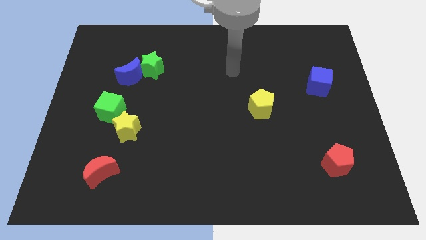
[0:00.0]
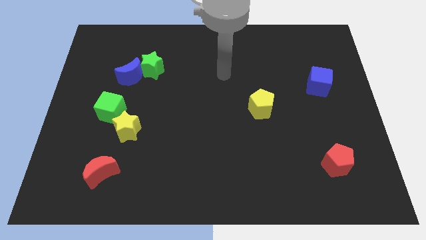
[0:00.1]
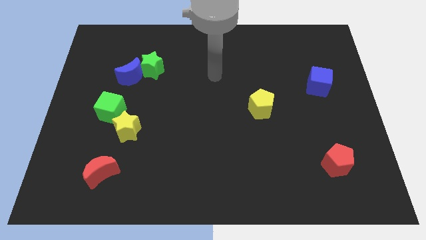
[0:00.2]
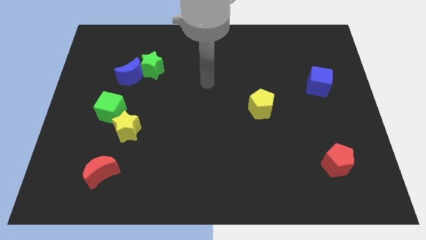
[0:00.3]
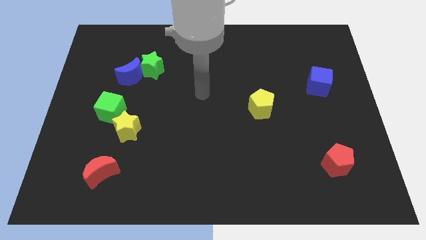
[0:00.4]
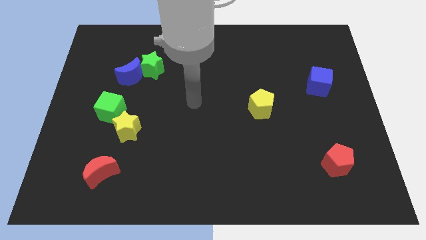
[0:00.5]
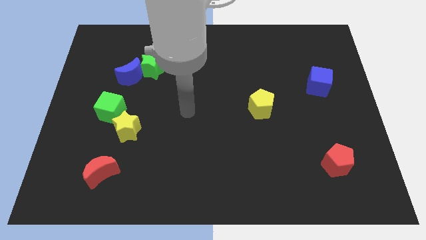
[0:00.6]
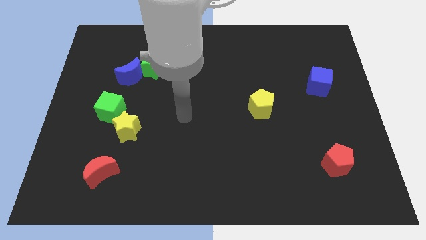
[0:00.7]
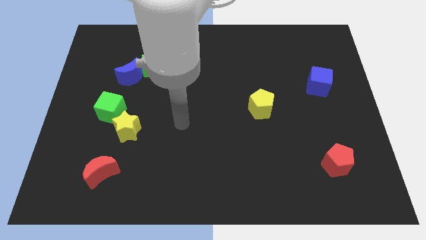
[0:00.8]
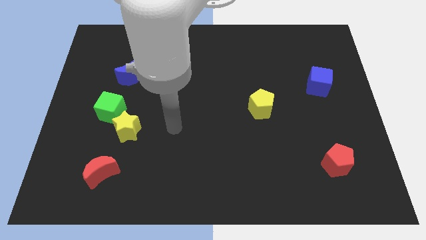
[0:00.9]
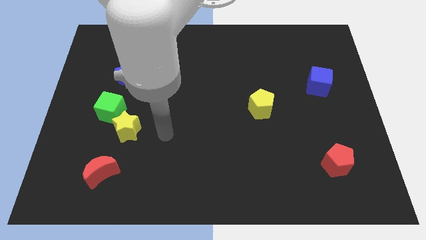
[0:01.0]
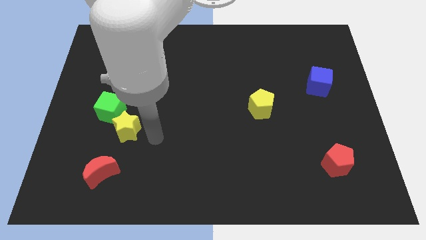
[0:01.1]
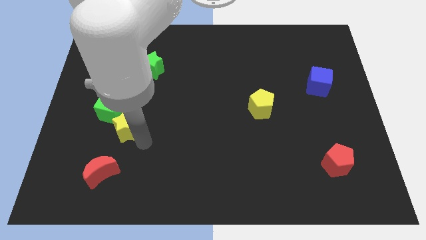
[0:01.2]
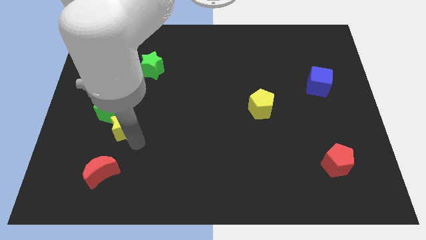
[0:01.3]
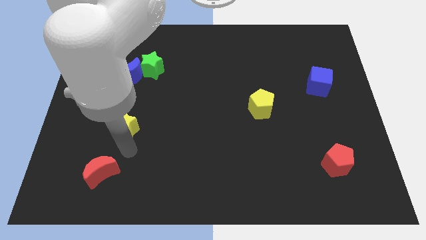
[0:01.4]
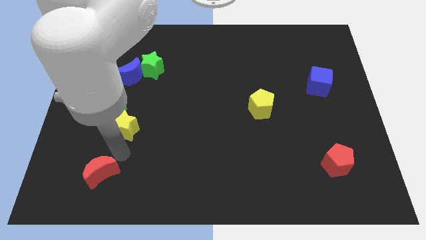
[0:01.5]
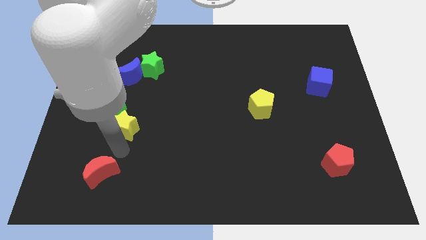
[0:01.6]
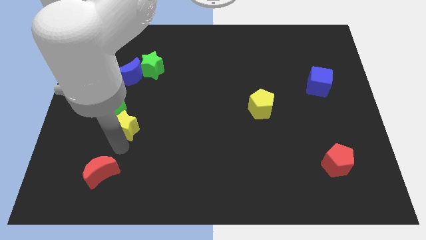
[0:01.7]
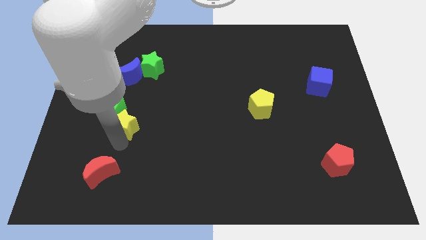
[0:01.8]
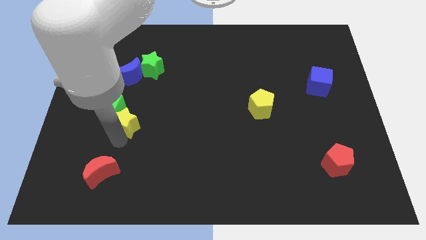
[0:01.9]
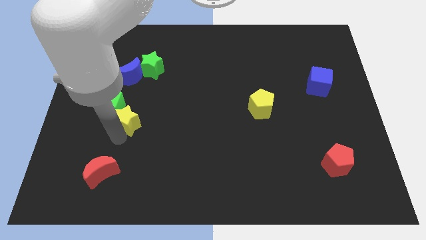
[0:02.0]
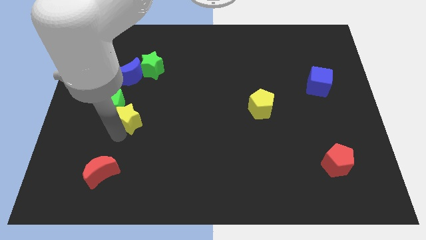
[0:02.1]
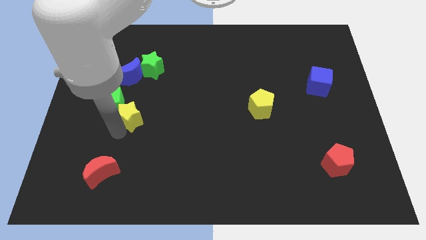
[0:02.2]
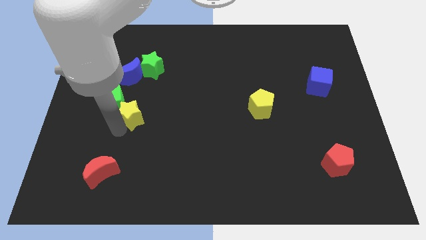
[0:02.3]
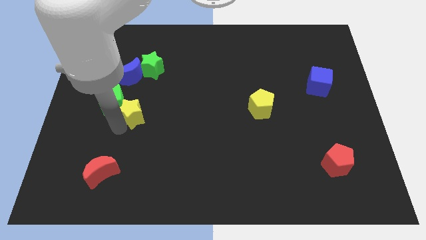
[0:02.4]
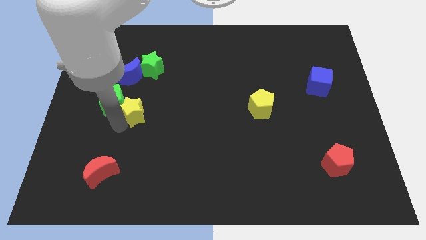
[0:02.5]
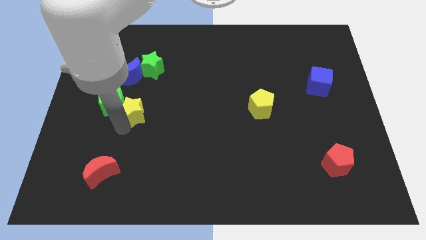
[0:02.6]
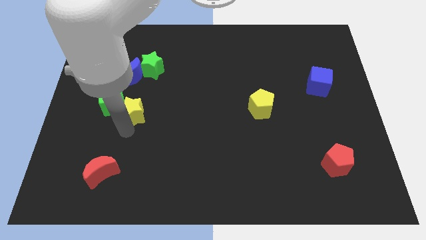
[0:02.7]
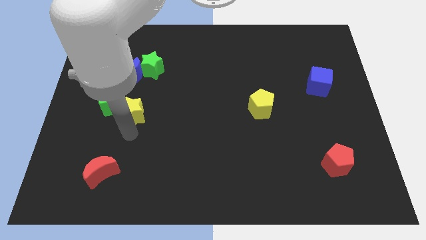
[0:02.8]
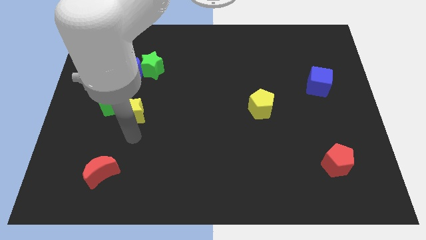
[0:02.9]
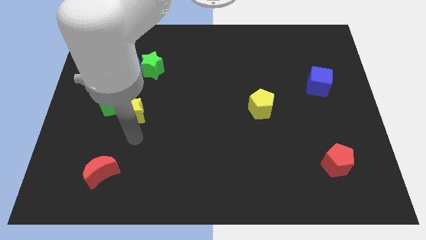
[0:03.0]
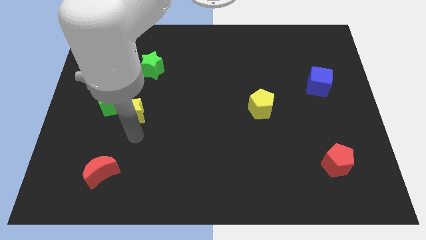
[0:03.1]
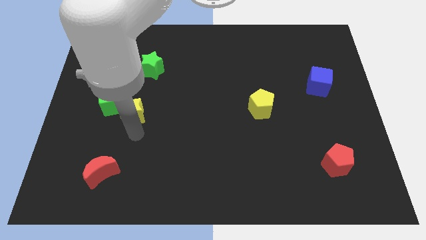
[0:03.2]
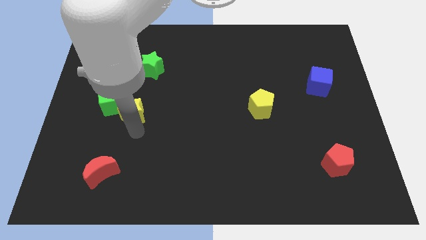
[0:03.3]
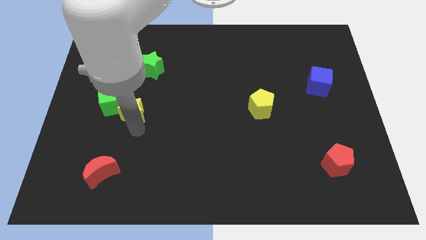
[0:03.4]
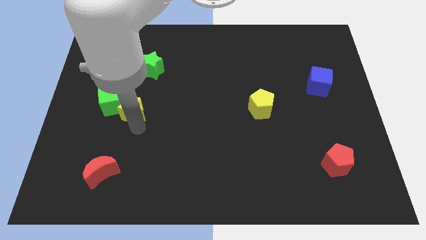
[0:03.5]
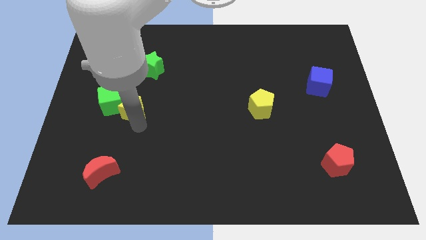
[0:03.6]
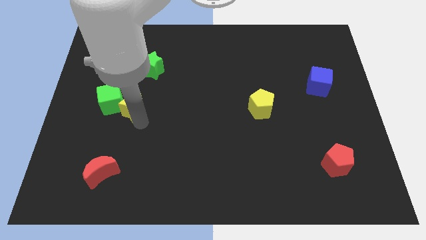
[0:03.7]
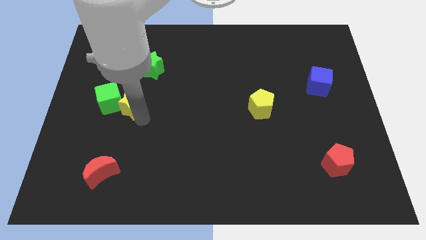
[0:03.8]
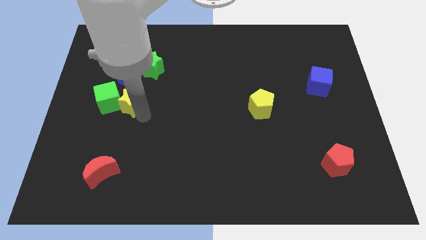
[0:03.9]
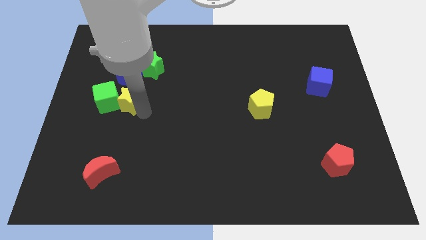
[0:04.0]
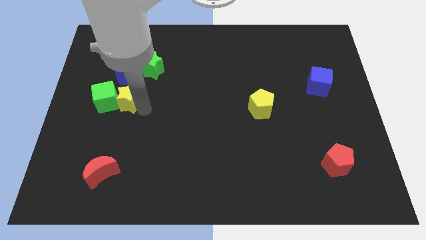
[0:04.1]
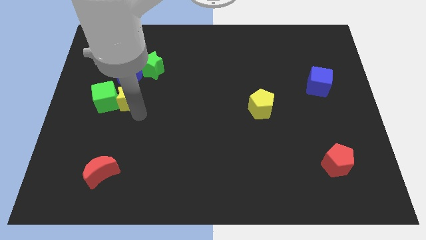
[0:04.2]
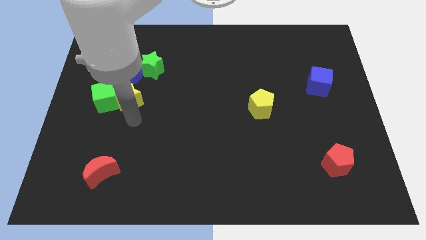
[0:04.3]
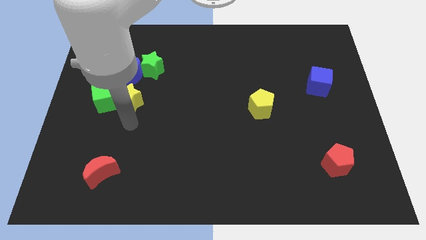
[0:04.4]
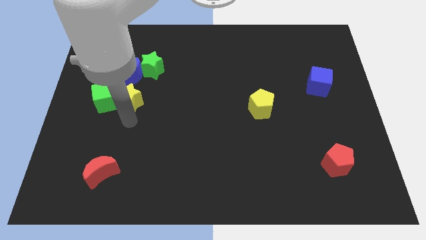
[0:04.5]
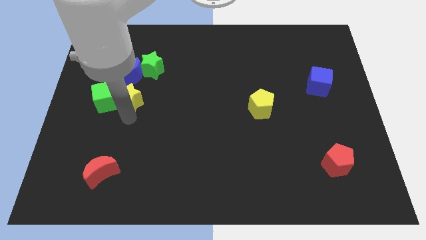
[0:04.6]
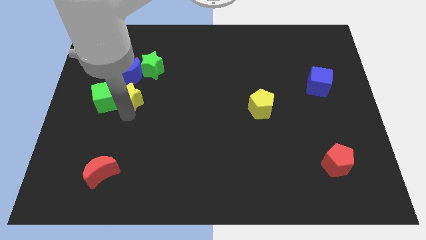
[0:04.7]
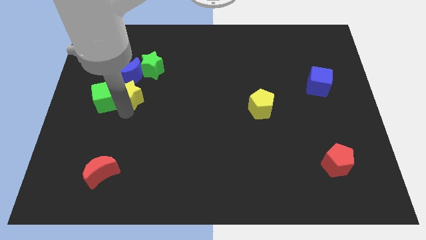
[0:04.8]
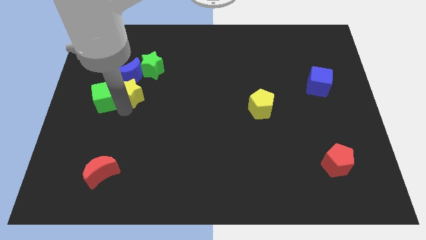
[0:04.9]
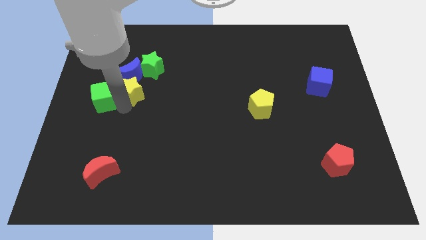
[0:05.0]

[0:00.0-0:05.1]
push the yellow star towards the blue moon

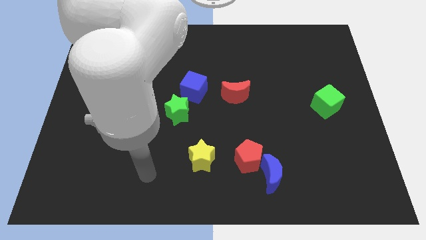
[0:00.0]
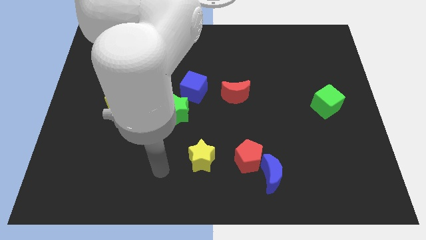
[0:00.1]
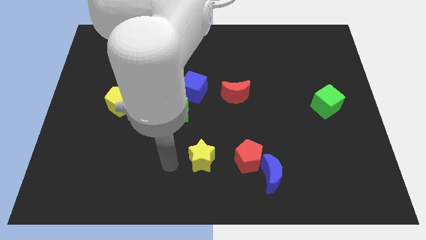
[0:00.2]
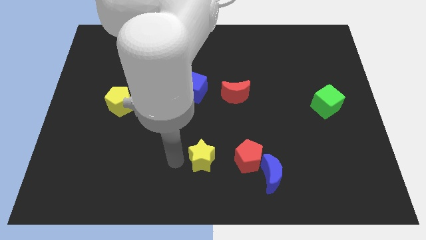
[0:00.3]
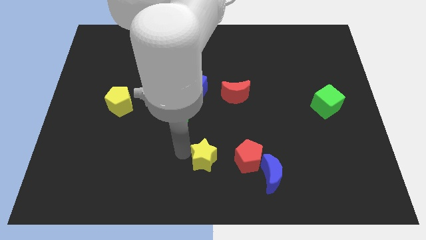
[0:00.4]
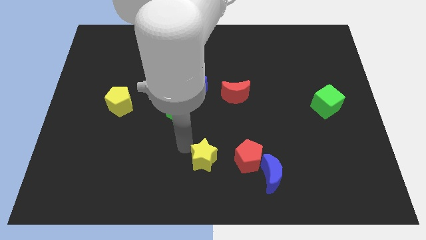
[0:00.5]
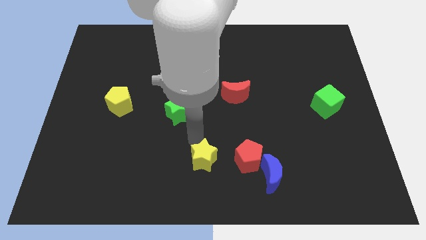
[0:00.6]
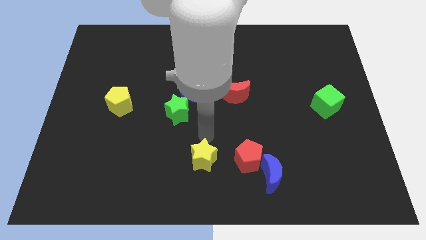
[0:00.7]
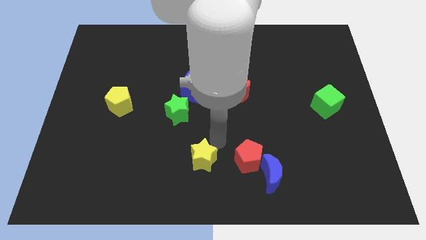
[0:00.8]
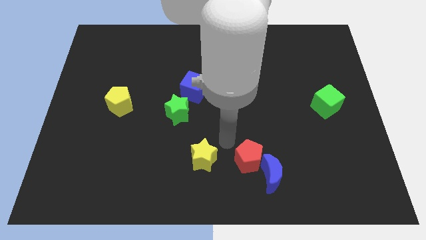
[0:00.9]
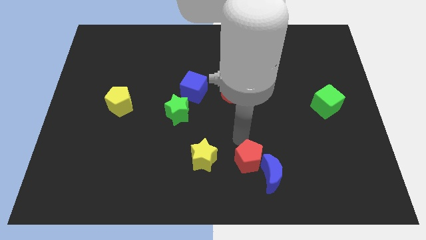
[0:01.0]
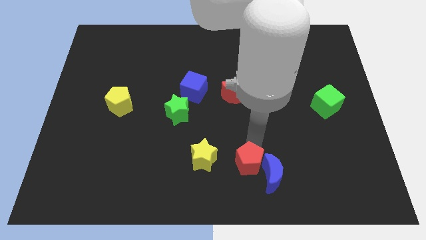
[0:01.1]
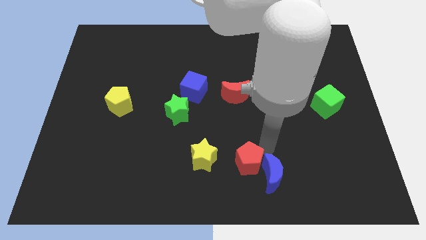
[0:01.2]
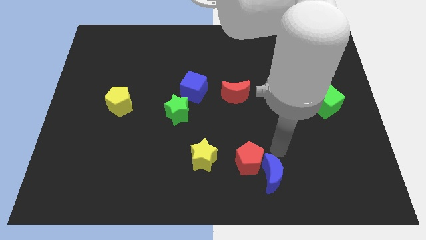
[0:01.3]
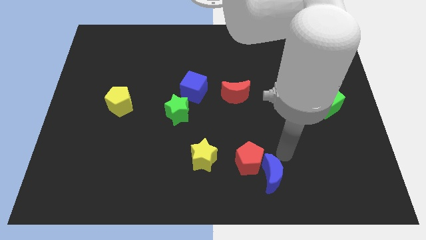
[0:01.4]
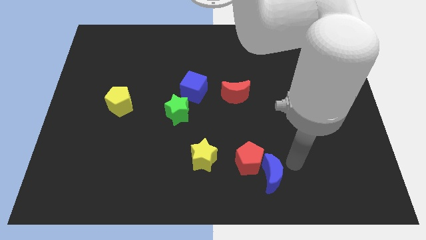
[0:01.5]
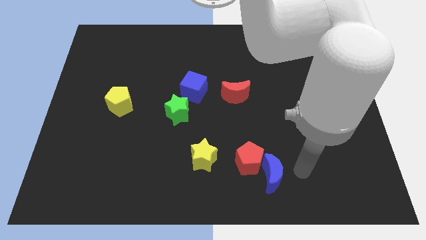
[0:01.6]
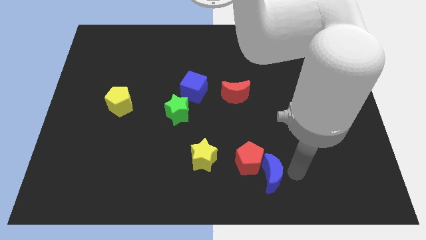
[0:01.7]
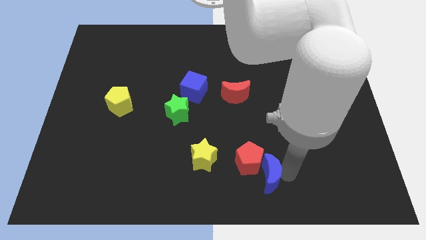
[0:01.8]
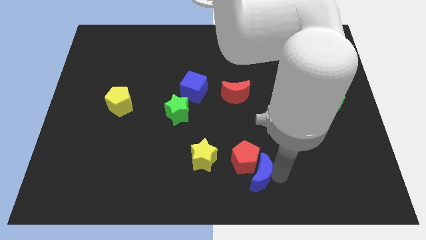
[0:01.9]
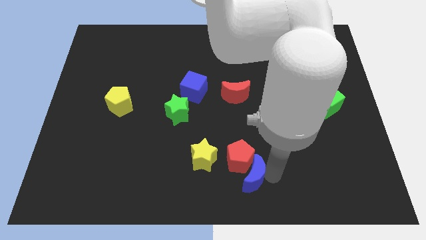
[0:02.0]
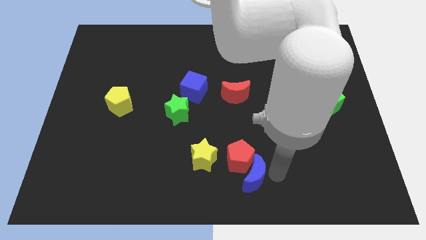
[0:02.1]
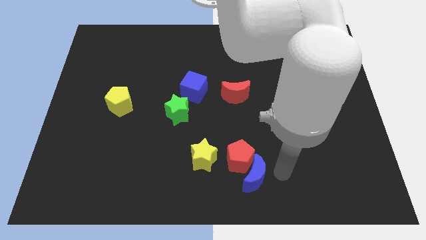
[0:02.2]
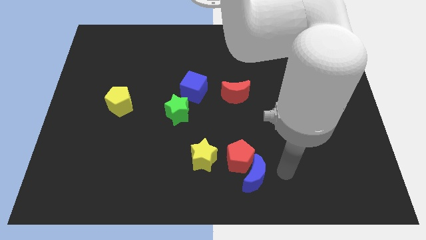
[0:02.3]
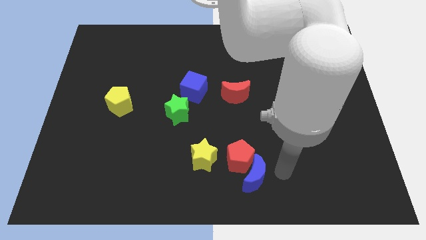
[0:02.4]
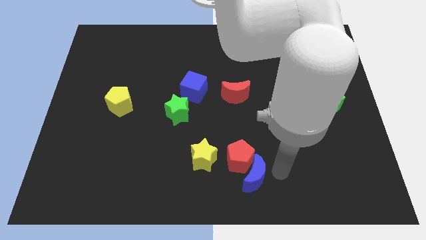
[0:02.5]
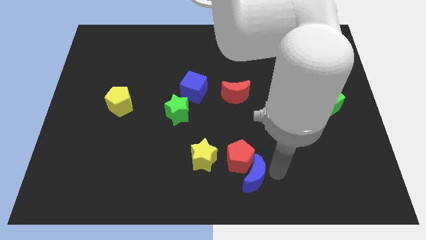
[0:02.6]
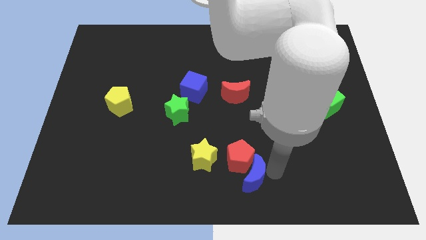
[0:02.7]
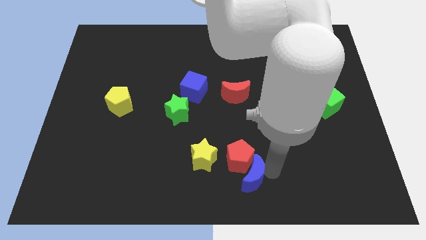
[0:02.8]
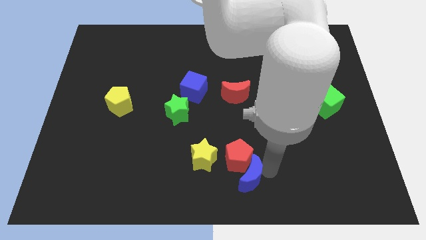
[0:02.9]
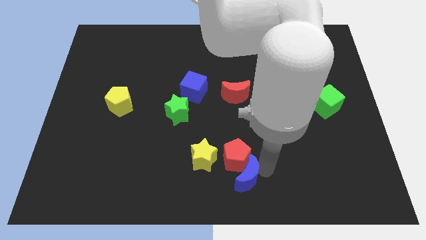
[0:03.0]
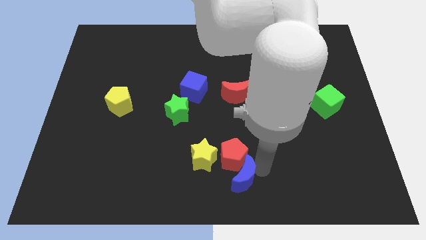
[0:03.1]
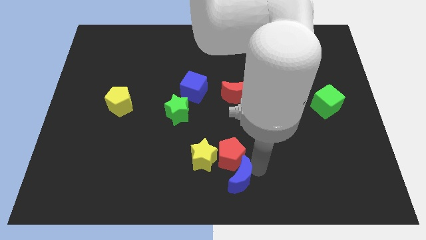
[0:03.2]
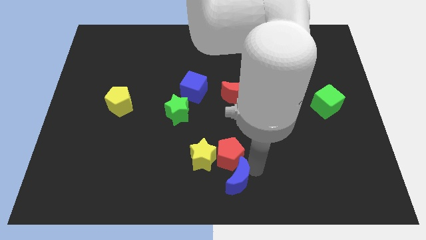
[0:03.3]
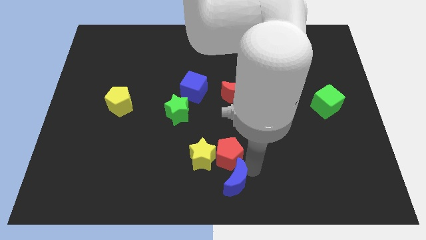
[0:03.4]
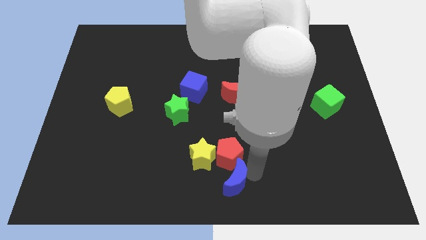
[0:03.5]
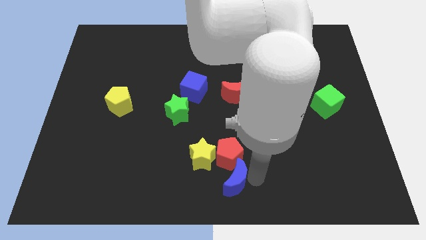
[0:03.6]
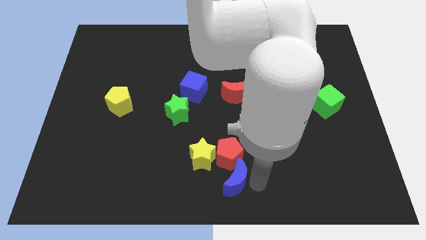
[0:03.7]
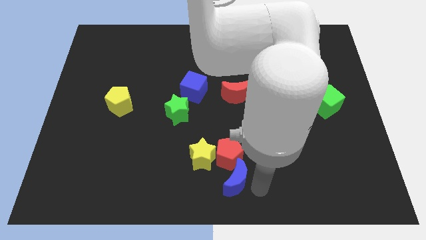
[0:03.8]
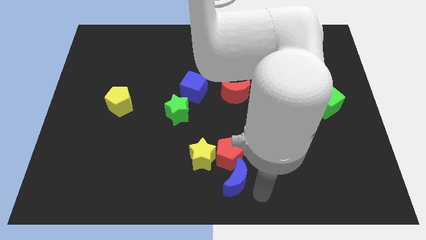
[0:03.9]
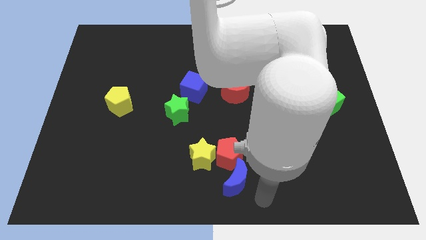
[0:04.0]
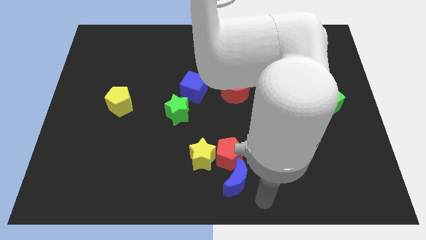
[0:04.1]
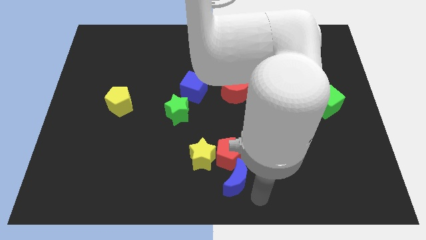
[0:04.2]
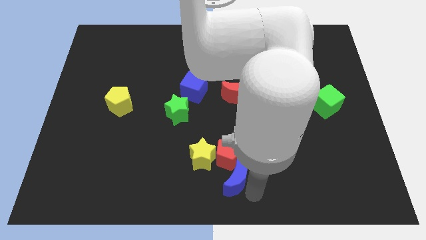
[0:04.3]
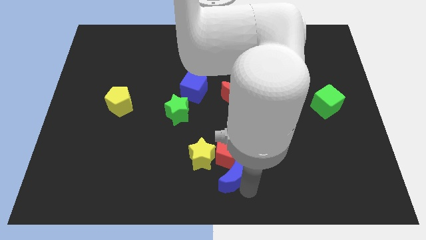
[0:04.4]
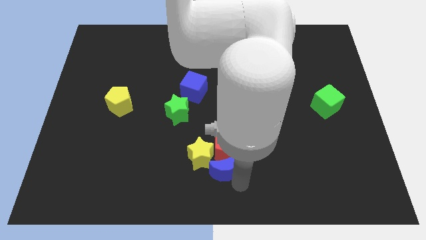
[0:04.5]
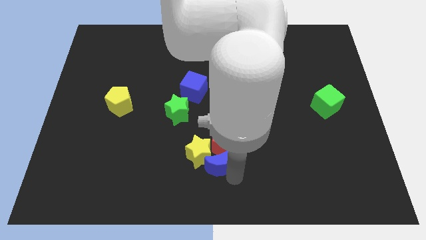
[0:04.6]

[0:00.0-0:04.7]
move the blue moon to the yellow star
